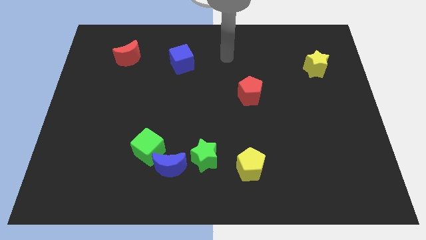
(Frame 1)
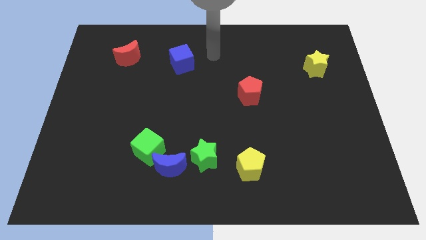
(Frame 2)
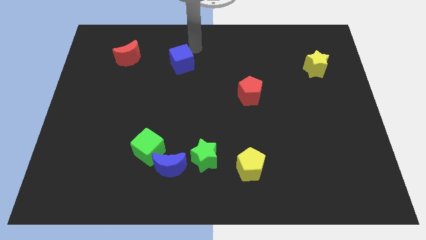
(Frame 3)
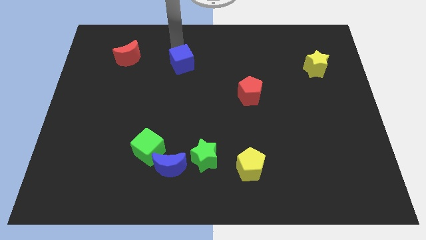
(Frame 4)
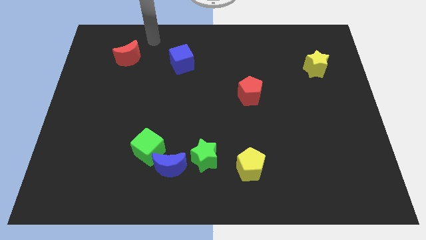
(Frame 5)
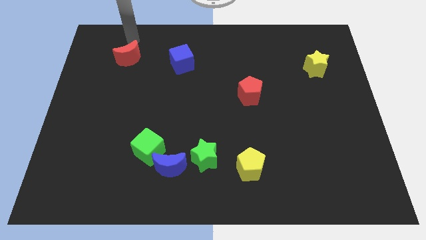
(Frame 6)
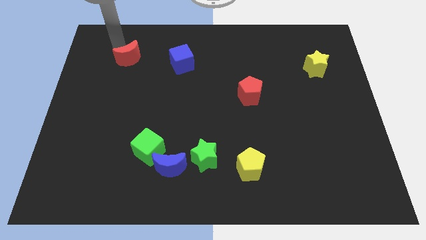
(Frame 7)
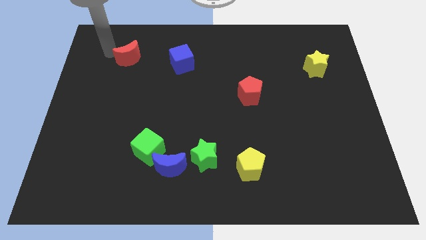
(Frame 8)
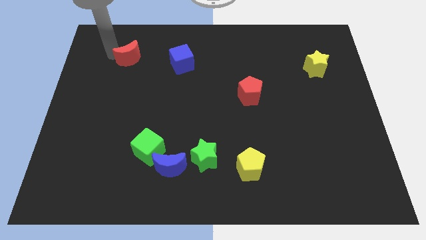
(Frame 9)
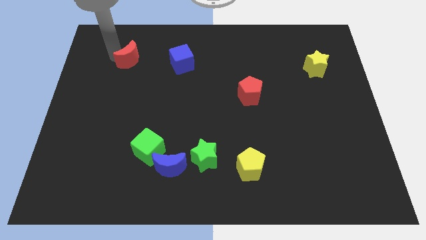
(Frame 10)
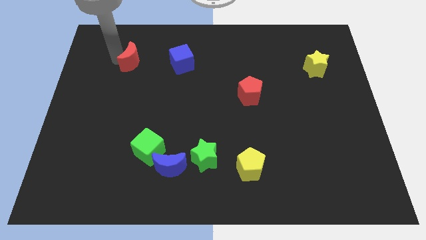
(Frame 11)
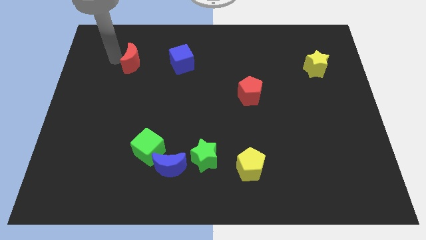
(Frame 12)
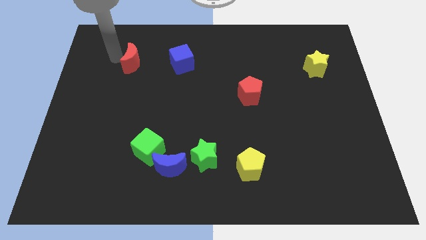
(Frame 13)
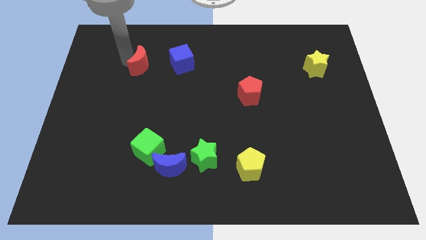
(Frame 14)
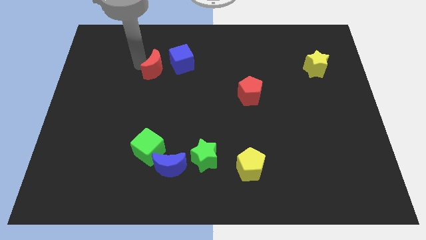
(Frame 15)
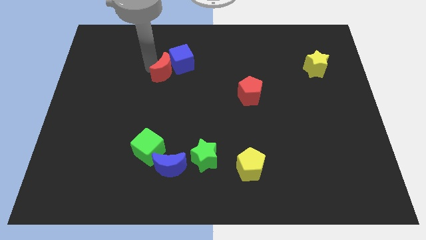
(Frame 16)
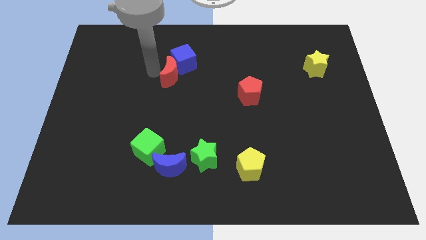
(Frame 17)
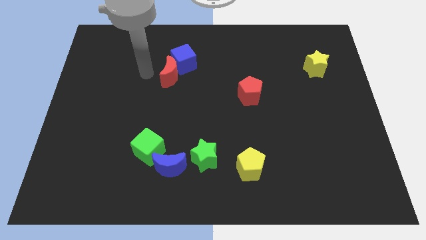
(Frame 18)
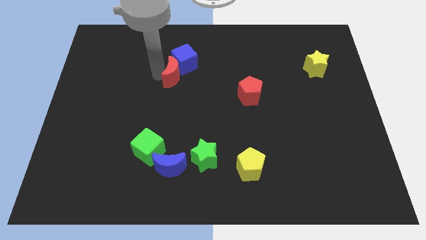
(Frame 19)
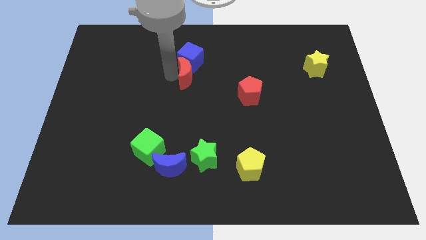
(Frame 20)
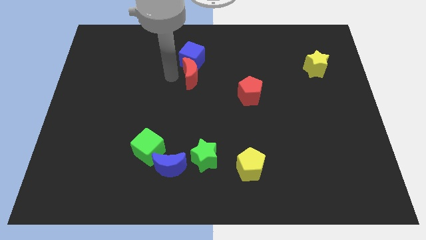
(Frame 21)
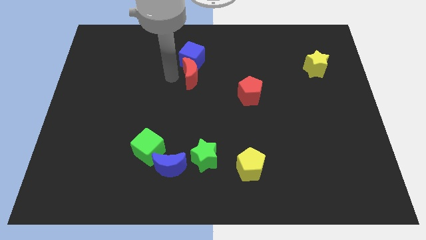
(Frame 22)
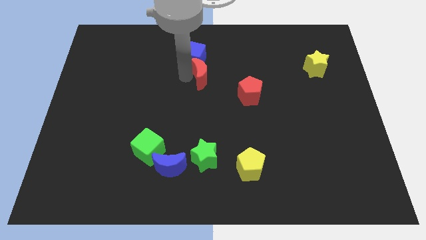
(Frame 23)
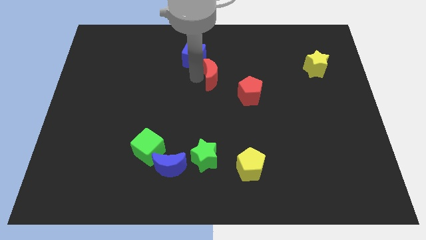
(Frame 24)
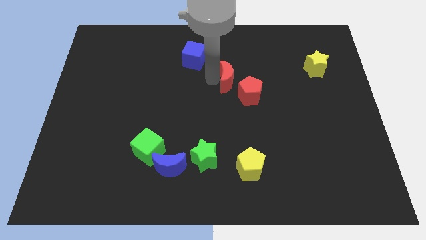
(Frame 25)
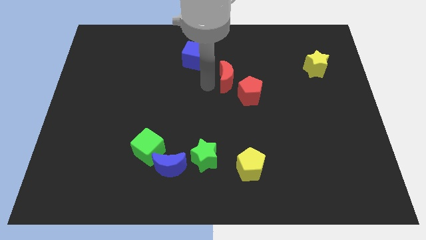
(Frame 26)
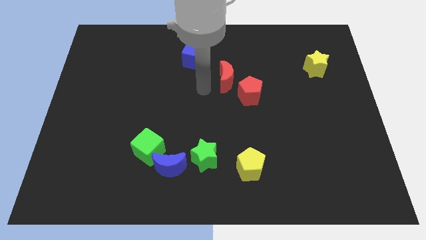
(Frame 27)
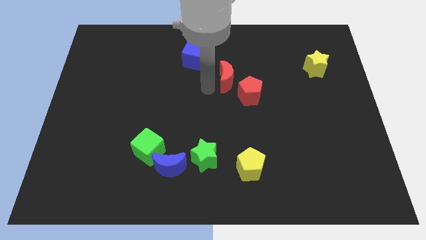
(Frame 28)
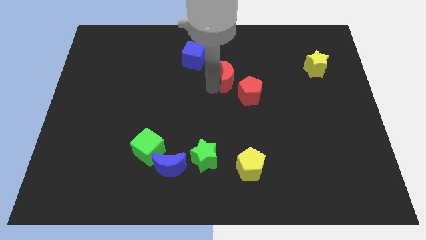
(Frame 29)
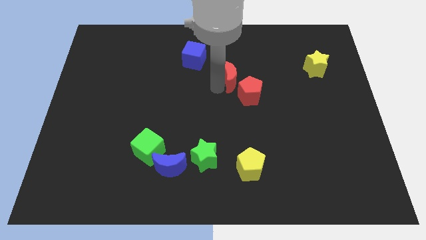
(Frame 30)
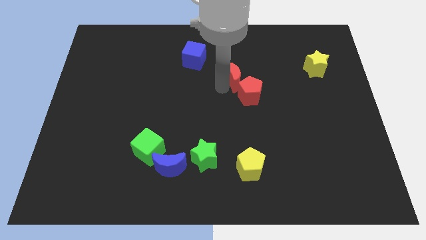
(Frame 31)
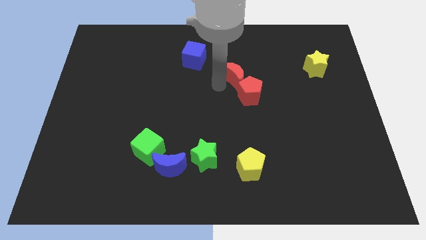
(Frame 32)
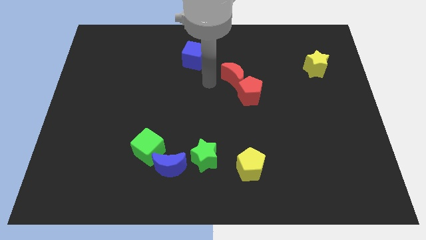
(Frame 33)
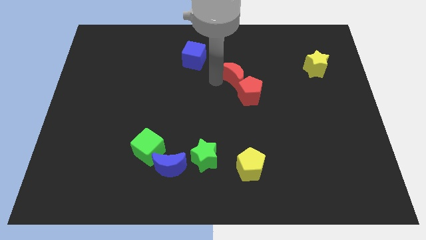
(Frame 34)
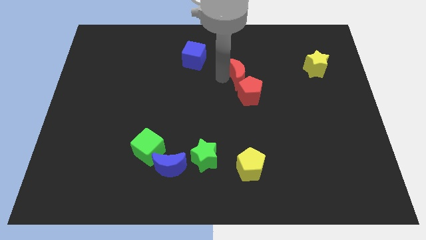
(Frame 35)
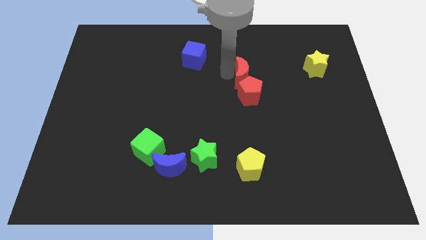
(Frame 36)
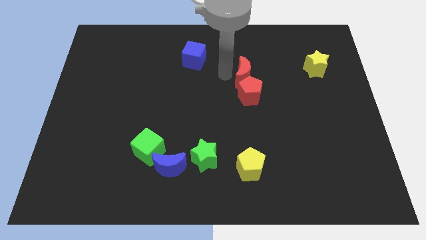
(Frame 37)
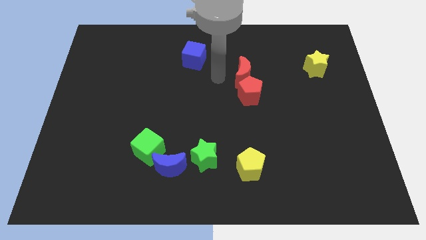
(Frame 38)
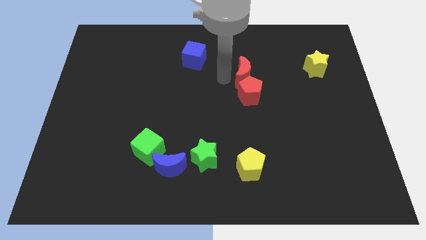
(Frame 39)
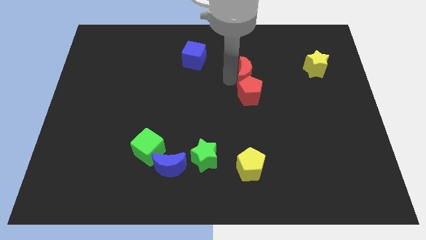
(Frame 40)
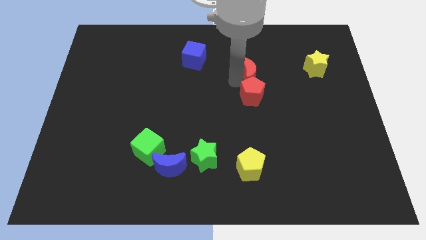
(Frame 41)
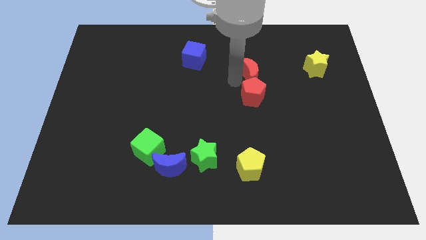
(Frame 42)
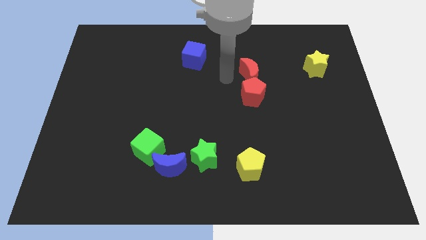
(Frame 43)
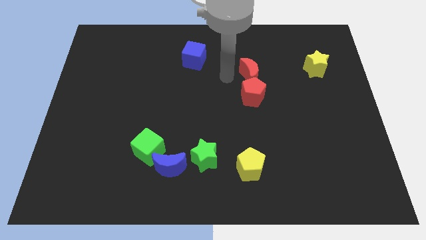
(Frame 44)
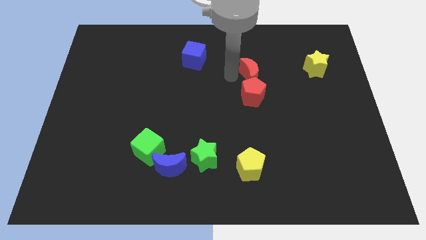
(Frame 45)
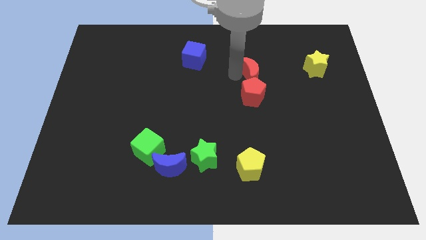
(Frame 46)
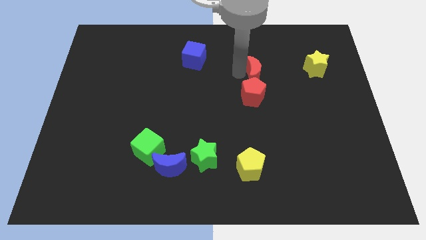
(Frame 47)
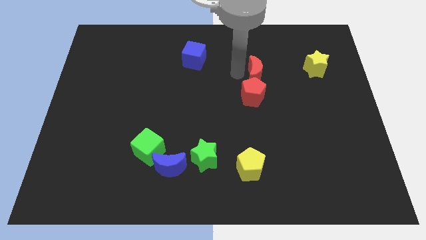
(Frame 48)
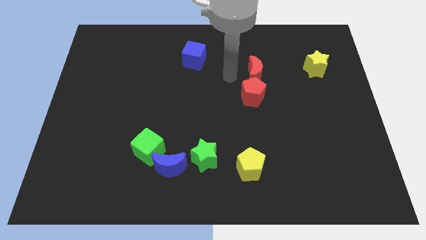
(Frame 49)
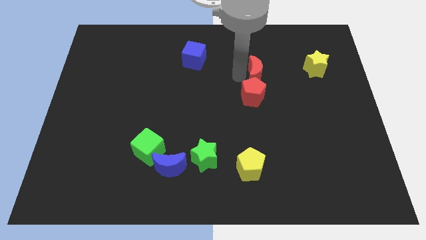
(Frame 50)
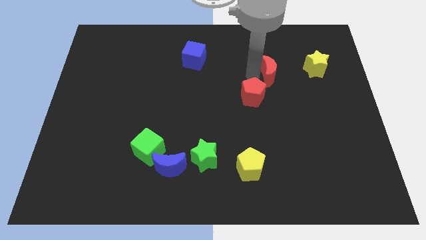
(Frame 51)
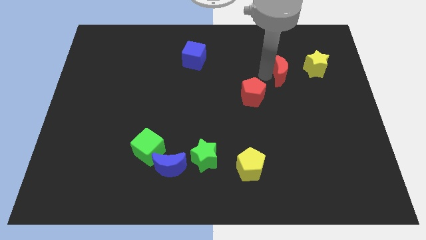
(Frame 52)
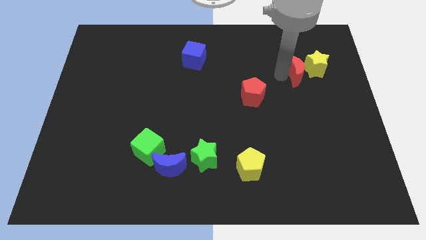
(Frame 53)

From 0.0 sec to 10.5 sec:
push the red moon close to the yellow star
